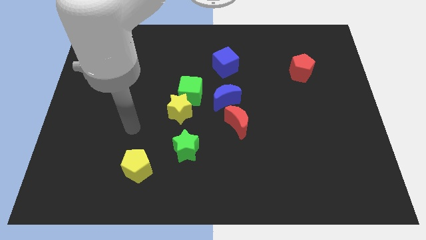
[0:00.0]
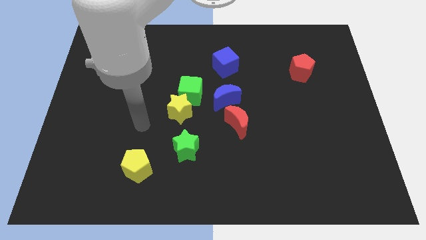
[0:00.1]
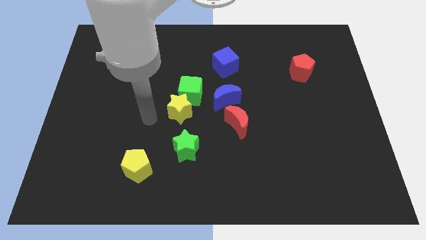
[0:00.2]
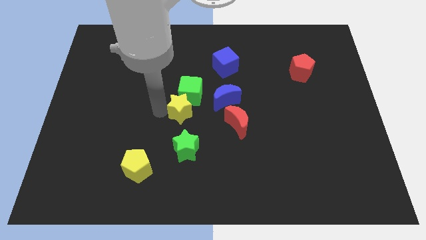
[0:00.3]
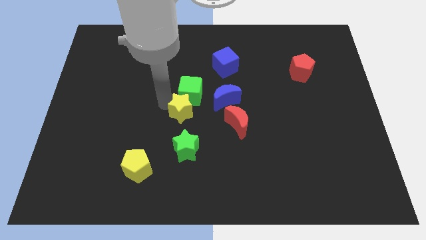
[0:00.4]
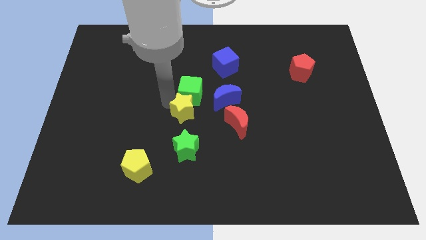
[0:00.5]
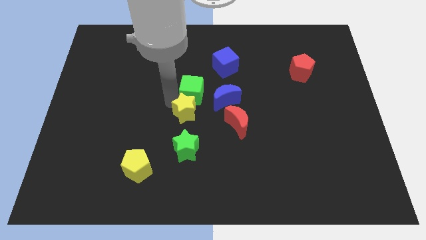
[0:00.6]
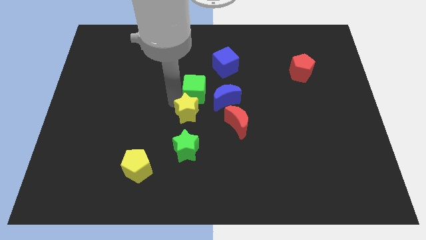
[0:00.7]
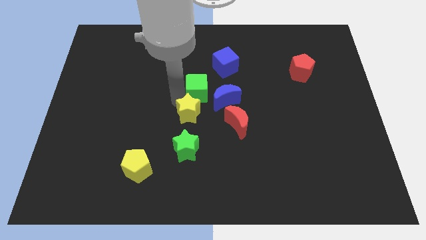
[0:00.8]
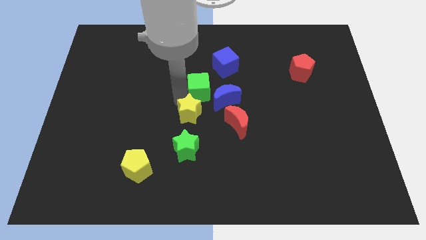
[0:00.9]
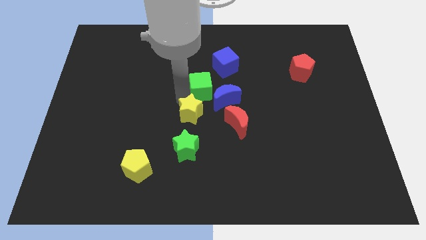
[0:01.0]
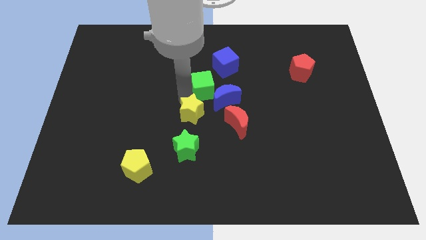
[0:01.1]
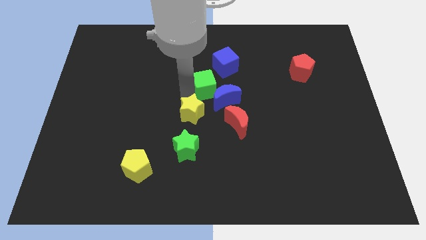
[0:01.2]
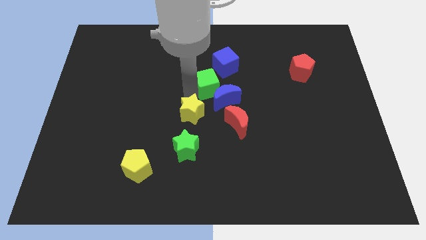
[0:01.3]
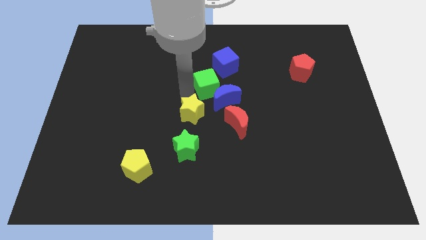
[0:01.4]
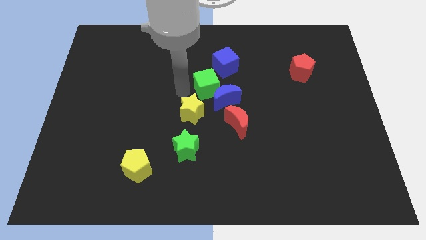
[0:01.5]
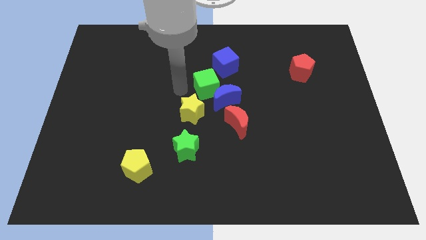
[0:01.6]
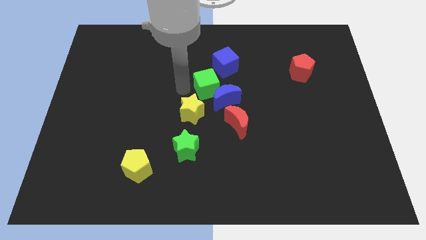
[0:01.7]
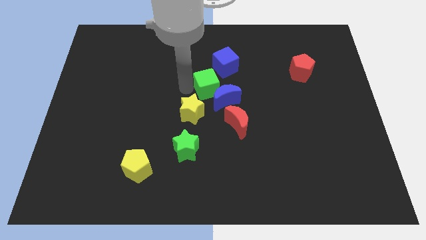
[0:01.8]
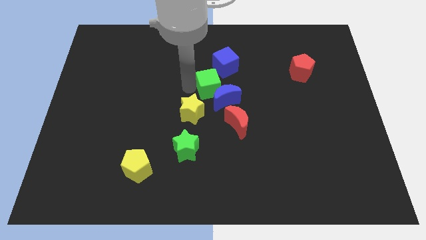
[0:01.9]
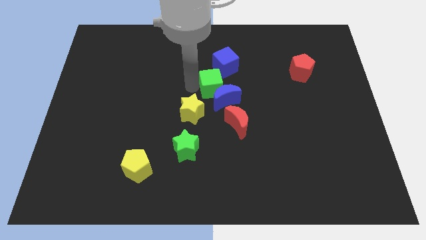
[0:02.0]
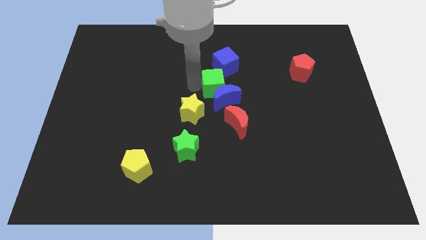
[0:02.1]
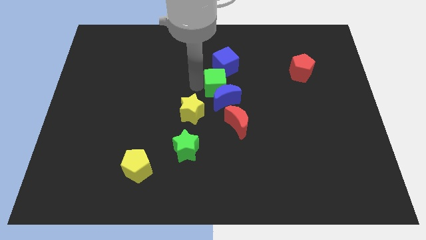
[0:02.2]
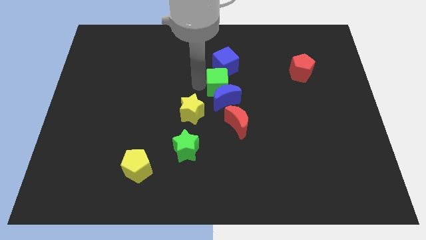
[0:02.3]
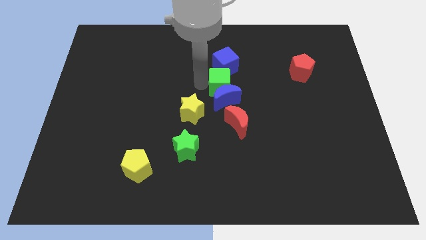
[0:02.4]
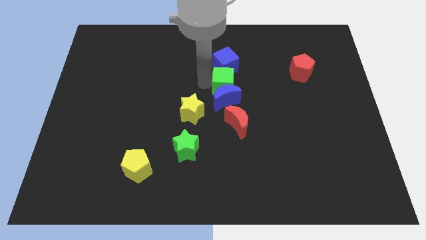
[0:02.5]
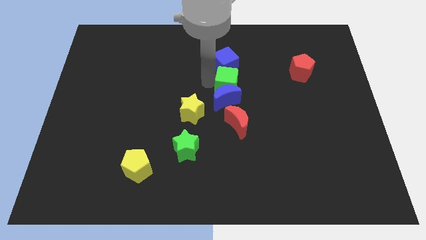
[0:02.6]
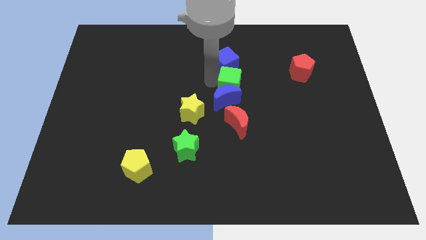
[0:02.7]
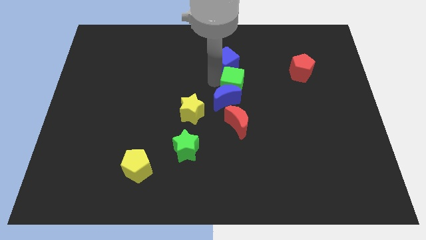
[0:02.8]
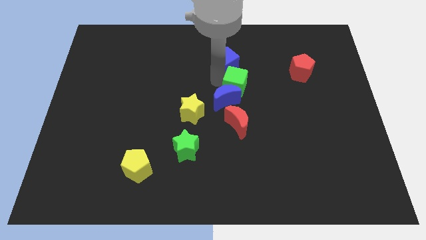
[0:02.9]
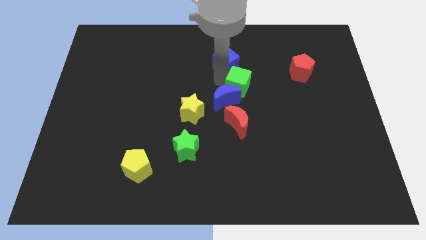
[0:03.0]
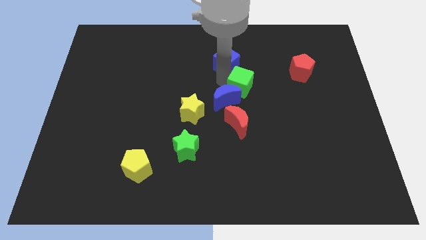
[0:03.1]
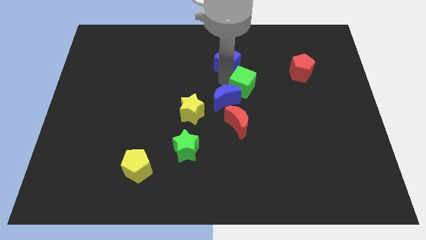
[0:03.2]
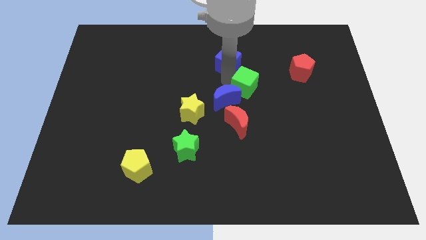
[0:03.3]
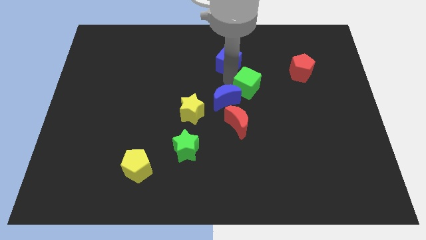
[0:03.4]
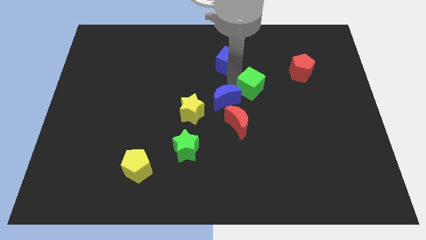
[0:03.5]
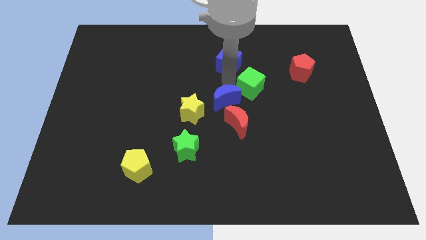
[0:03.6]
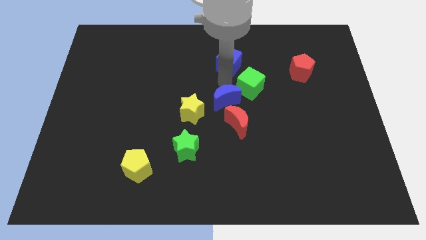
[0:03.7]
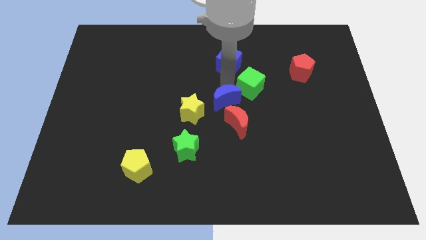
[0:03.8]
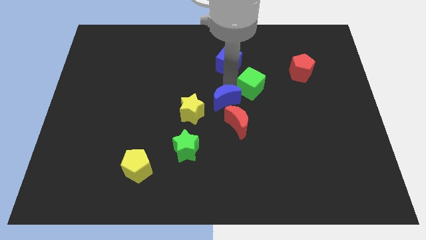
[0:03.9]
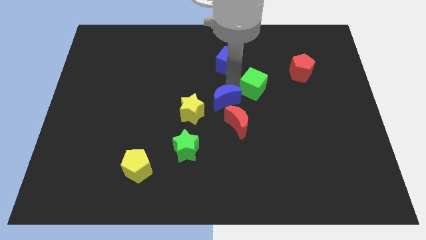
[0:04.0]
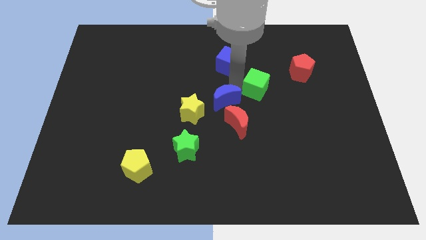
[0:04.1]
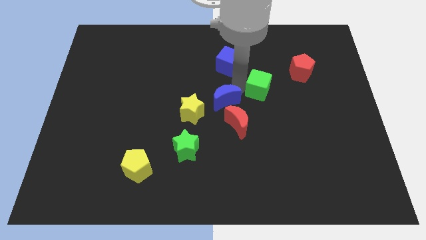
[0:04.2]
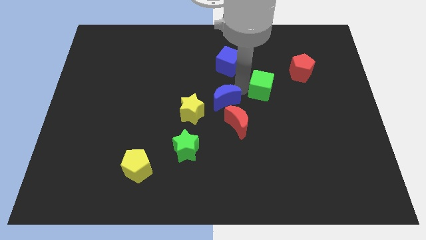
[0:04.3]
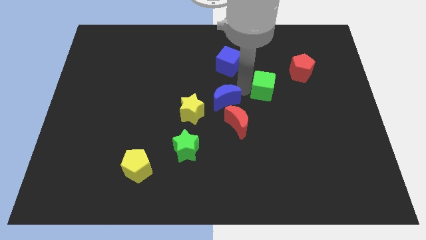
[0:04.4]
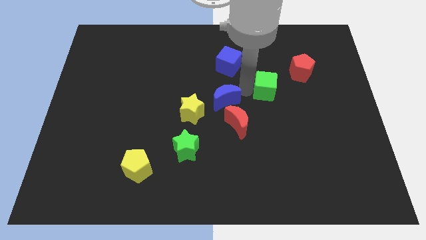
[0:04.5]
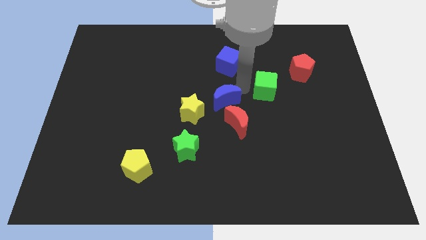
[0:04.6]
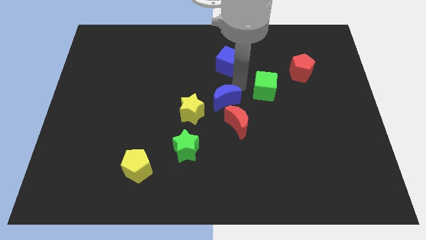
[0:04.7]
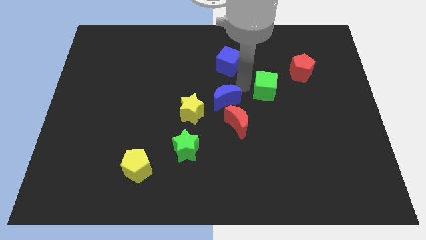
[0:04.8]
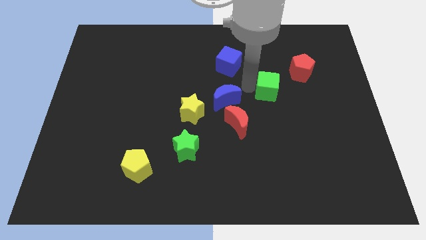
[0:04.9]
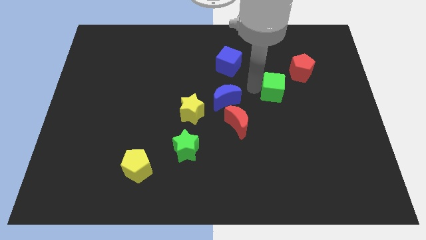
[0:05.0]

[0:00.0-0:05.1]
push the green cube to the right

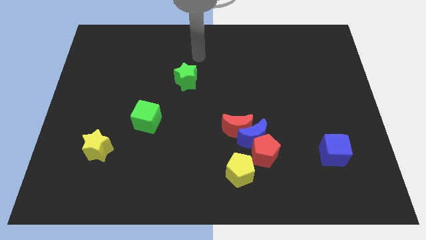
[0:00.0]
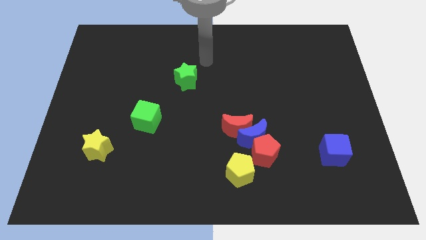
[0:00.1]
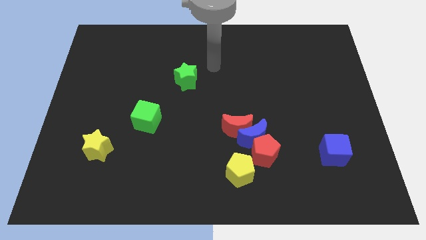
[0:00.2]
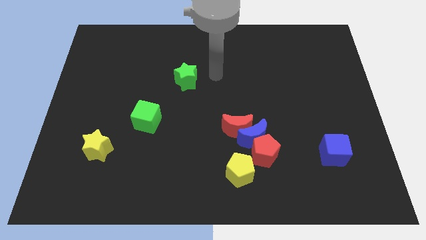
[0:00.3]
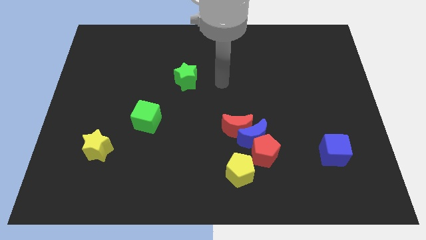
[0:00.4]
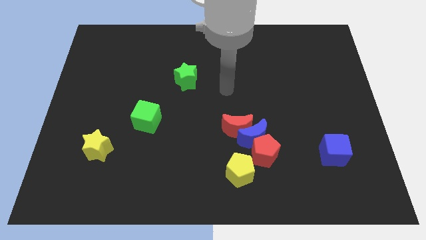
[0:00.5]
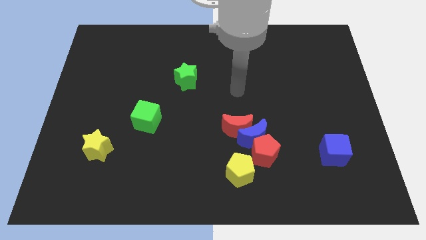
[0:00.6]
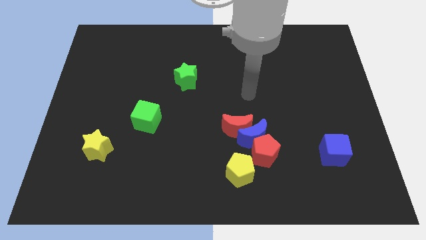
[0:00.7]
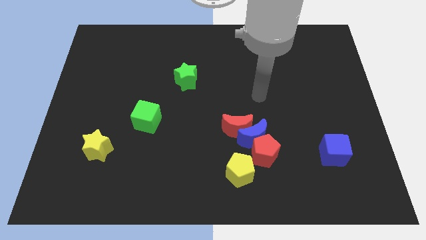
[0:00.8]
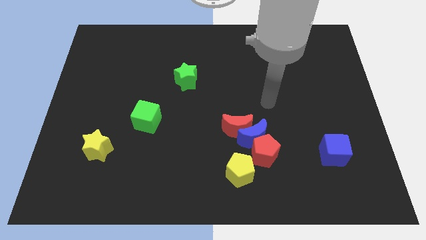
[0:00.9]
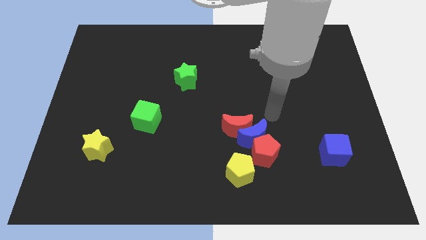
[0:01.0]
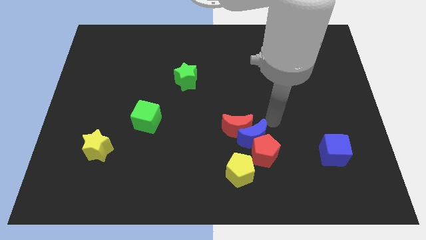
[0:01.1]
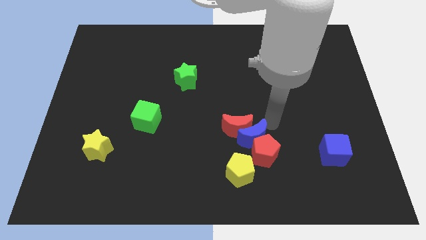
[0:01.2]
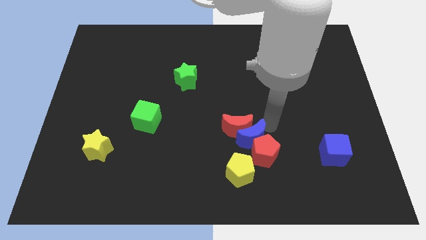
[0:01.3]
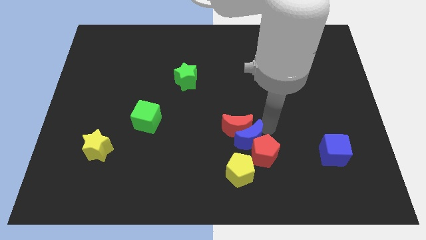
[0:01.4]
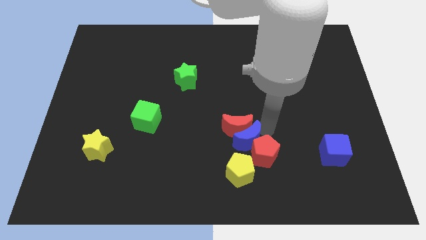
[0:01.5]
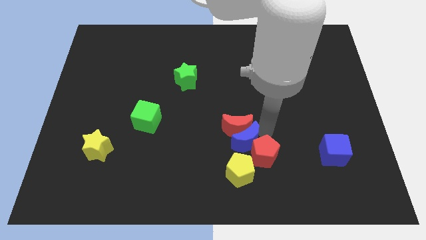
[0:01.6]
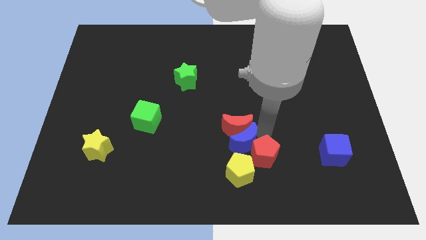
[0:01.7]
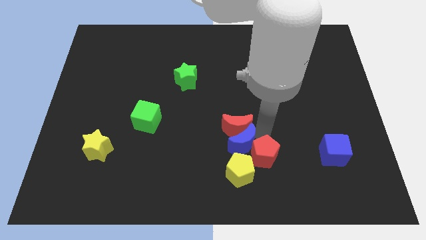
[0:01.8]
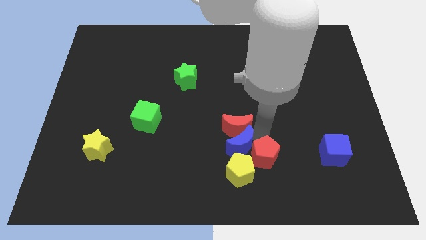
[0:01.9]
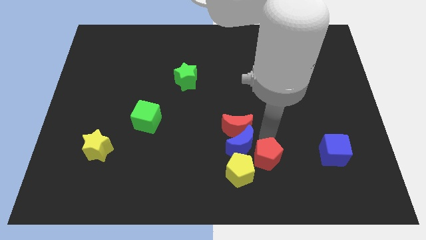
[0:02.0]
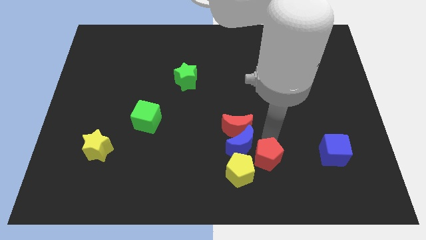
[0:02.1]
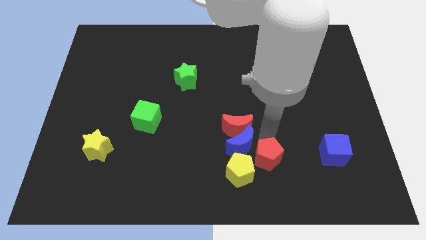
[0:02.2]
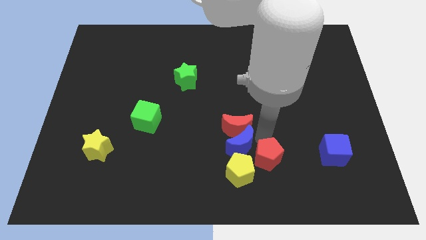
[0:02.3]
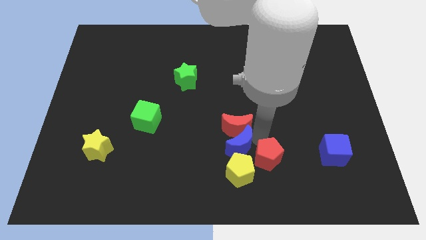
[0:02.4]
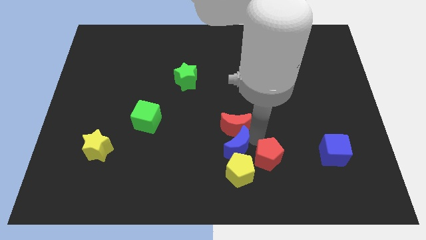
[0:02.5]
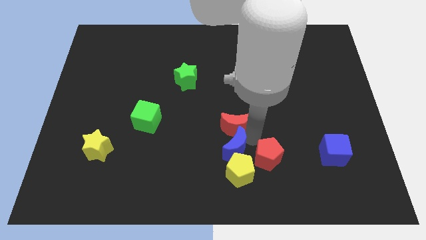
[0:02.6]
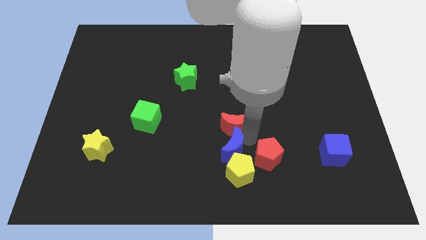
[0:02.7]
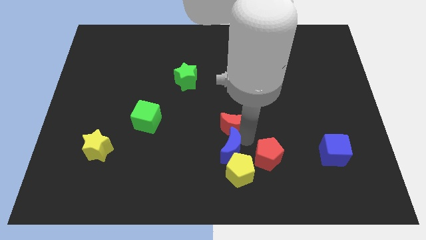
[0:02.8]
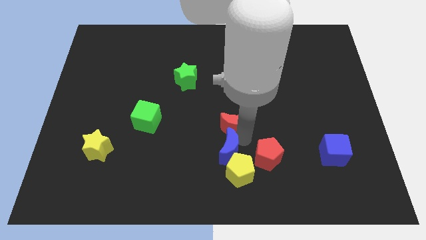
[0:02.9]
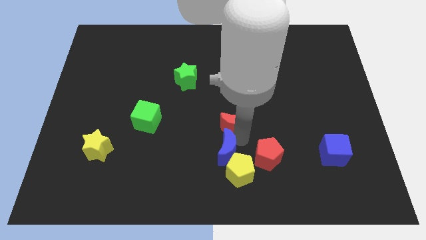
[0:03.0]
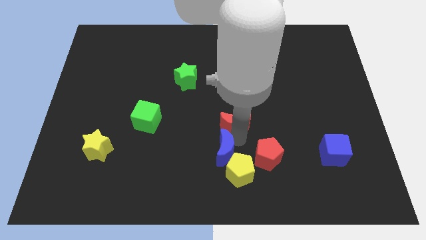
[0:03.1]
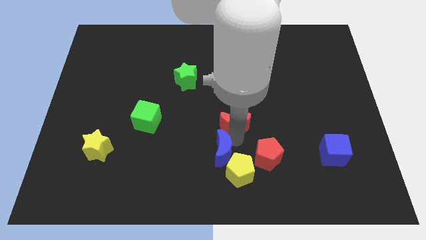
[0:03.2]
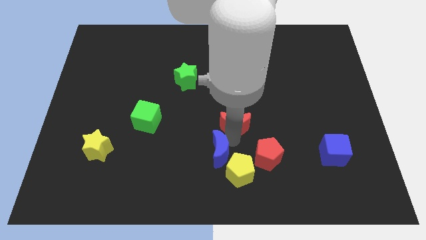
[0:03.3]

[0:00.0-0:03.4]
push the blue moon a little bit left
